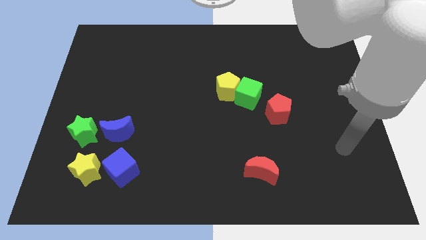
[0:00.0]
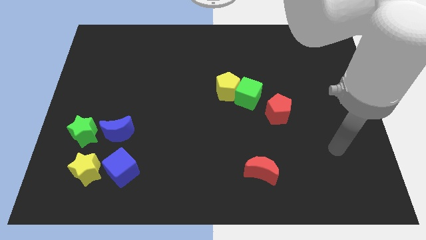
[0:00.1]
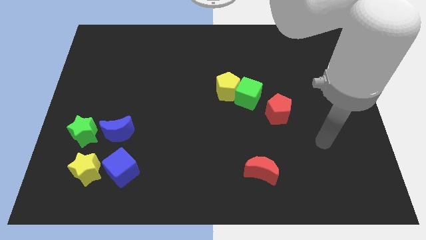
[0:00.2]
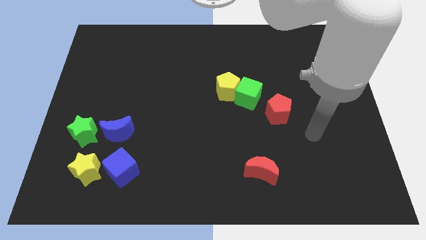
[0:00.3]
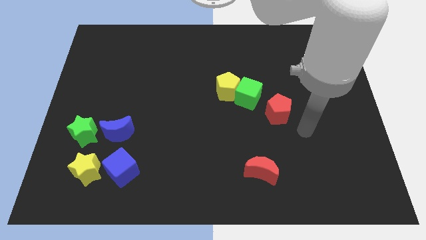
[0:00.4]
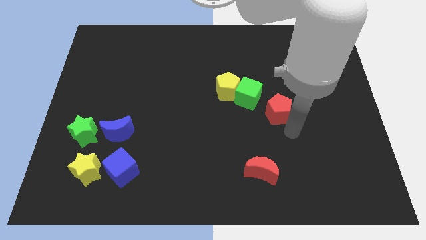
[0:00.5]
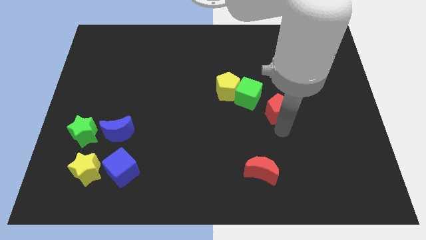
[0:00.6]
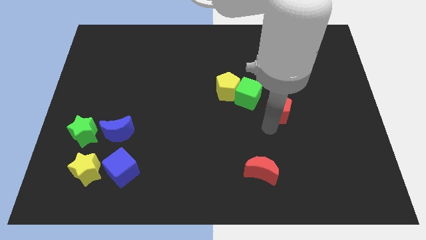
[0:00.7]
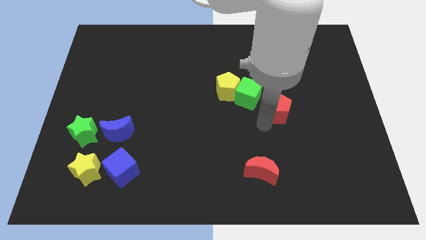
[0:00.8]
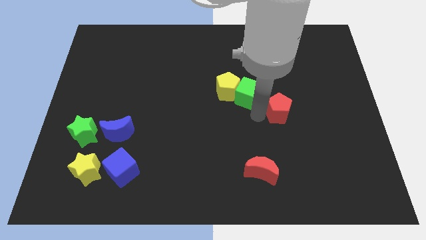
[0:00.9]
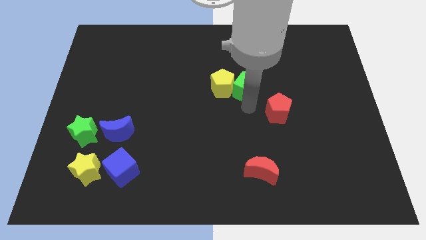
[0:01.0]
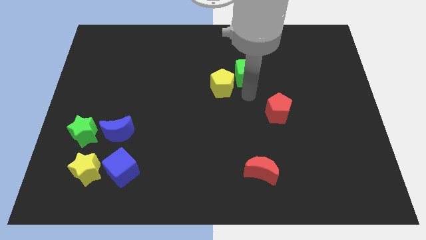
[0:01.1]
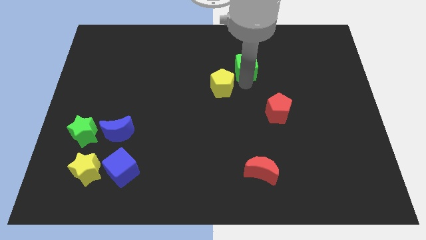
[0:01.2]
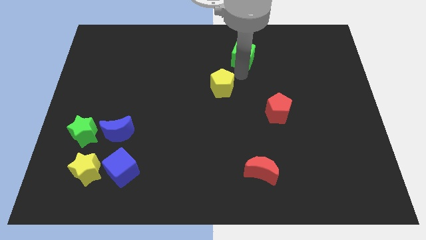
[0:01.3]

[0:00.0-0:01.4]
separate the yellow pentagon from the green cube

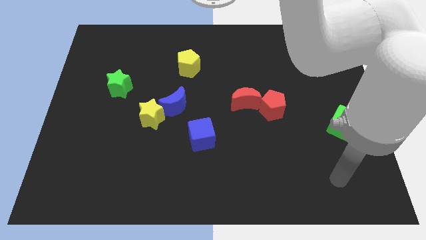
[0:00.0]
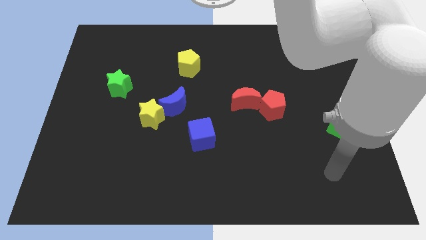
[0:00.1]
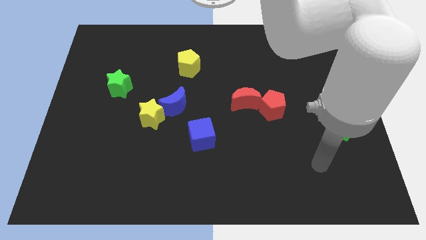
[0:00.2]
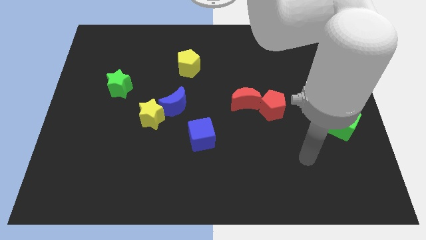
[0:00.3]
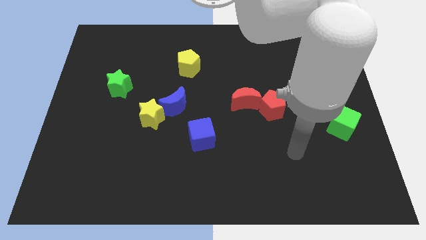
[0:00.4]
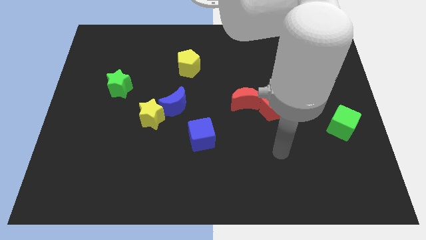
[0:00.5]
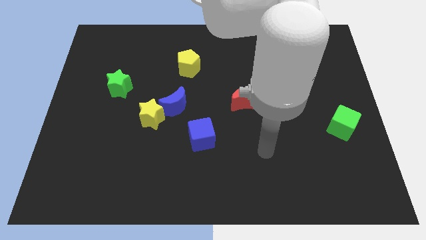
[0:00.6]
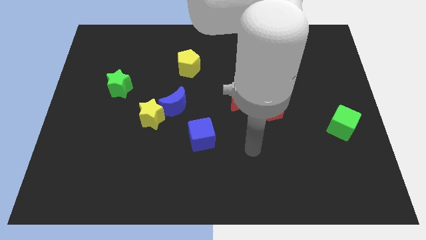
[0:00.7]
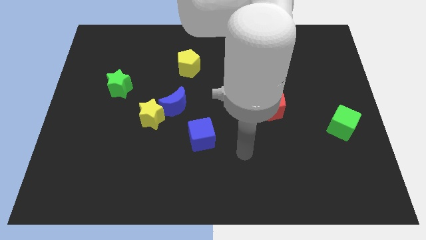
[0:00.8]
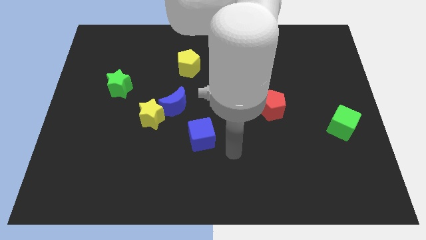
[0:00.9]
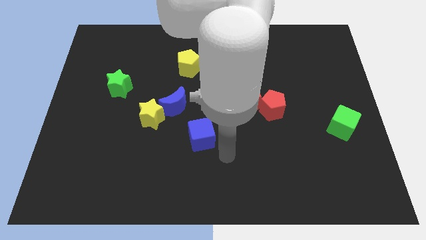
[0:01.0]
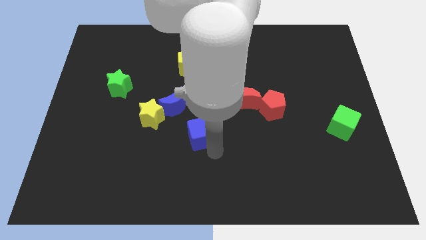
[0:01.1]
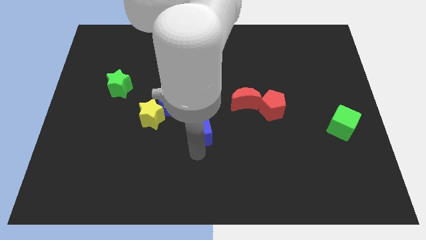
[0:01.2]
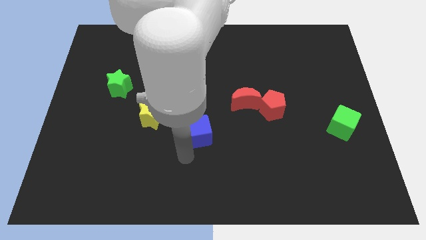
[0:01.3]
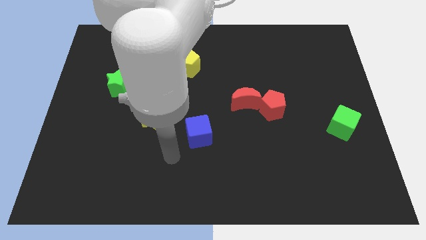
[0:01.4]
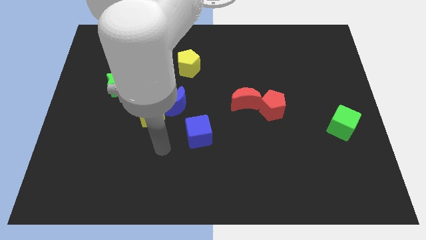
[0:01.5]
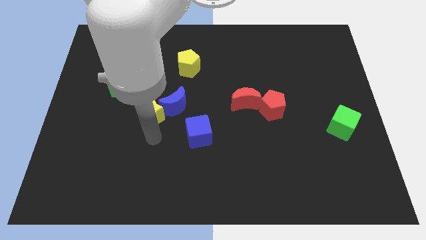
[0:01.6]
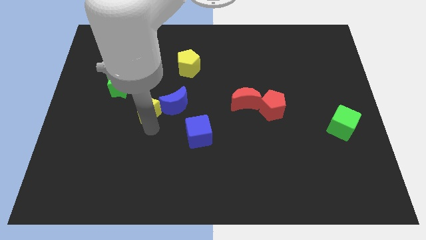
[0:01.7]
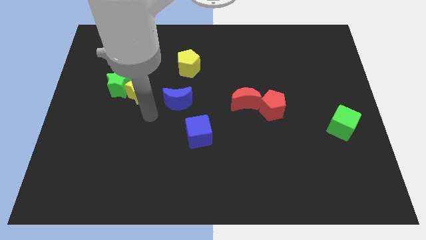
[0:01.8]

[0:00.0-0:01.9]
pull the blue moon apart from the yellow star

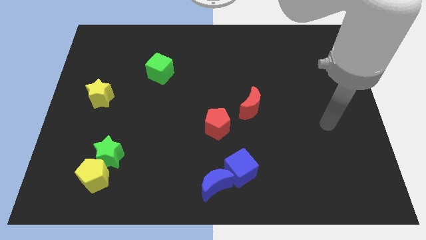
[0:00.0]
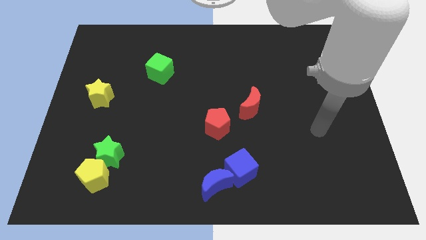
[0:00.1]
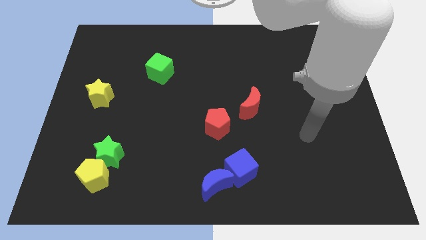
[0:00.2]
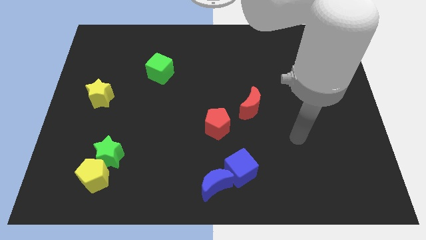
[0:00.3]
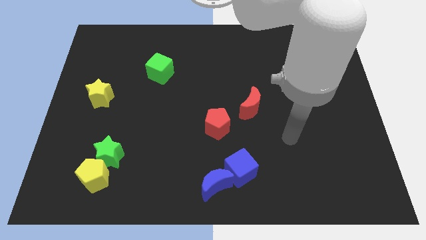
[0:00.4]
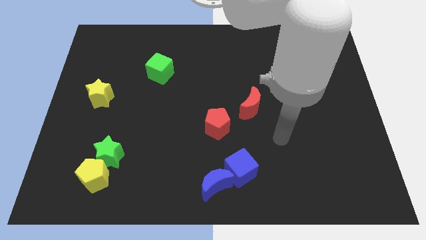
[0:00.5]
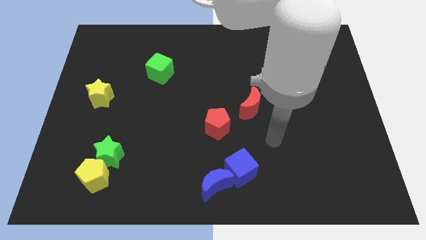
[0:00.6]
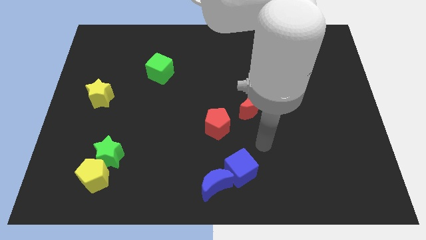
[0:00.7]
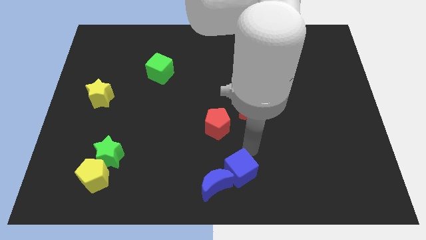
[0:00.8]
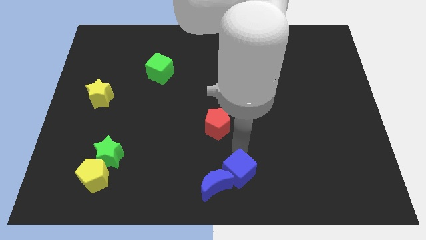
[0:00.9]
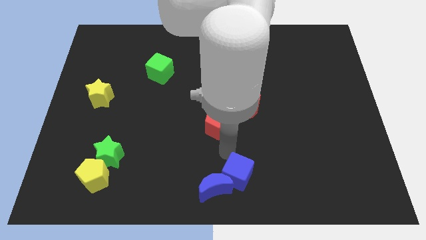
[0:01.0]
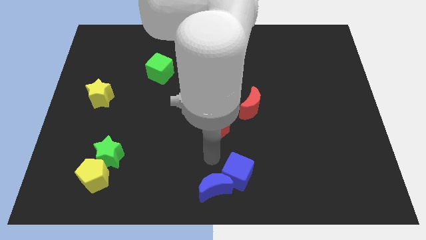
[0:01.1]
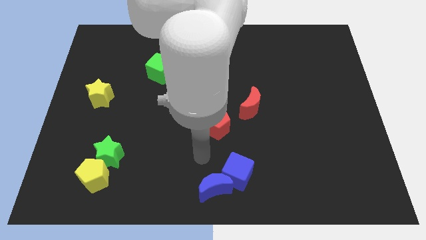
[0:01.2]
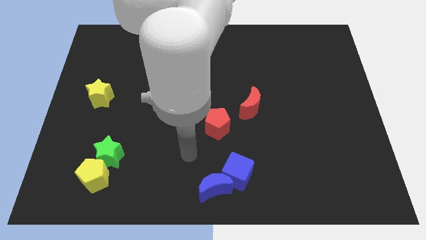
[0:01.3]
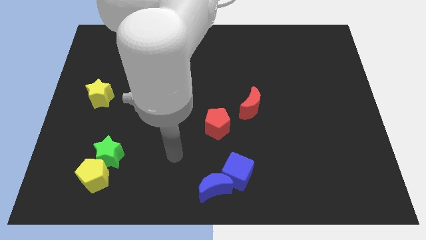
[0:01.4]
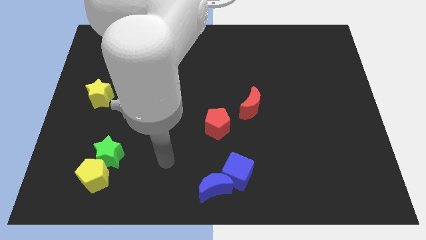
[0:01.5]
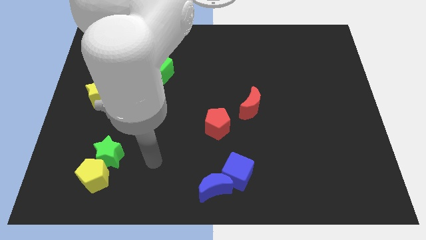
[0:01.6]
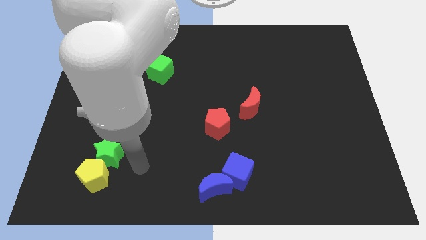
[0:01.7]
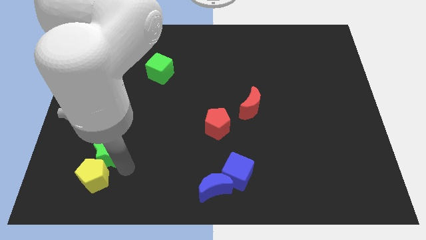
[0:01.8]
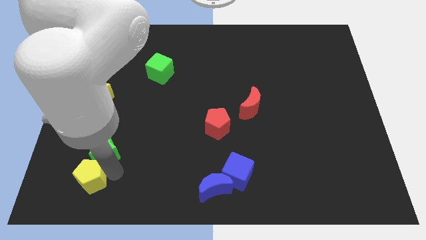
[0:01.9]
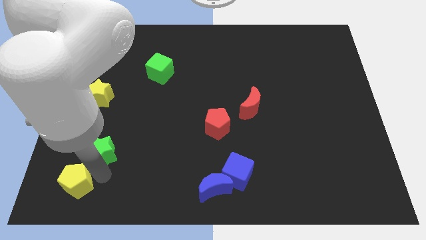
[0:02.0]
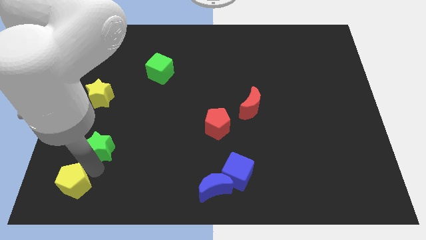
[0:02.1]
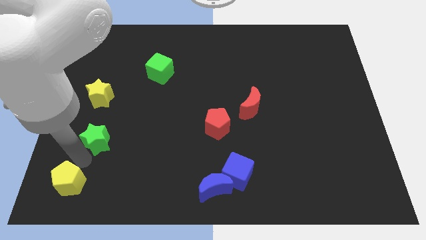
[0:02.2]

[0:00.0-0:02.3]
separate the green star from the yellow pentagon

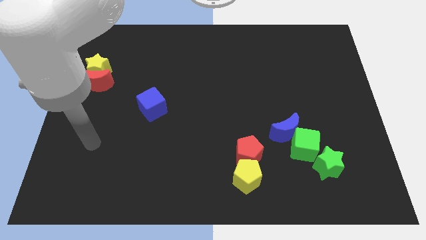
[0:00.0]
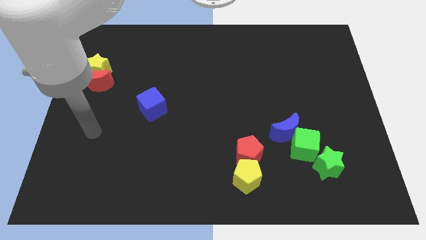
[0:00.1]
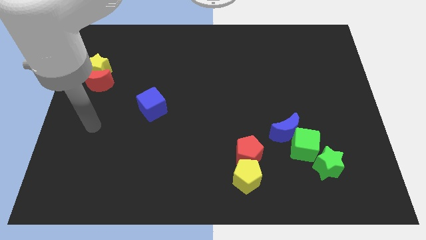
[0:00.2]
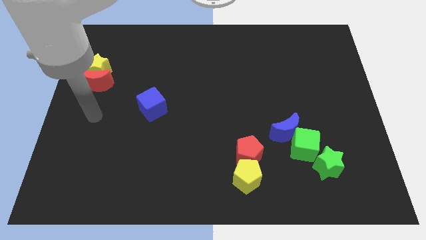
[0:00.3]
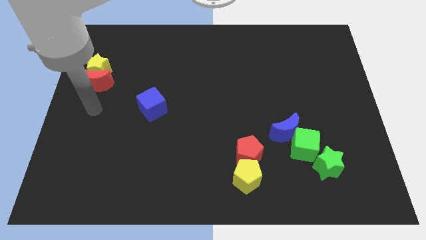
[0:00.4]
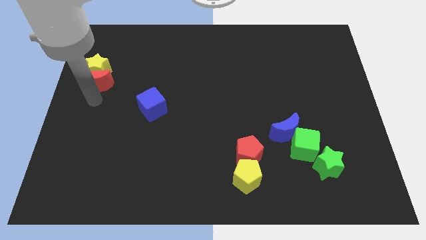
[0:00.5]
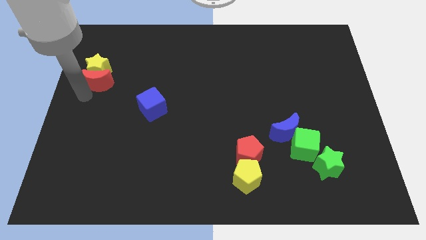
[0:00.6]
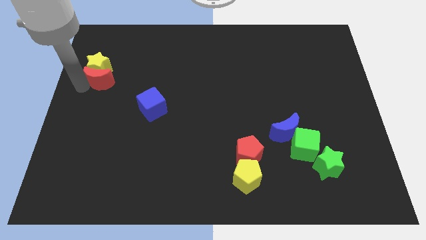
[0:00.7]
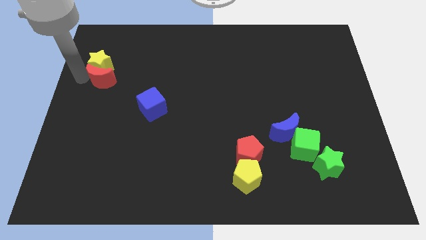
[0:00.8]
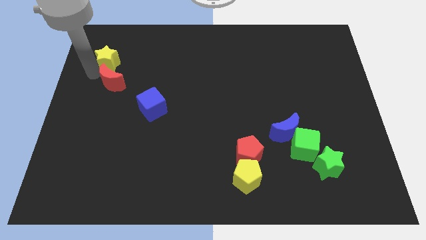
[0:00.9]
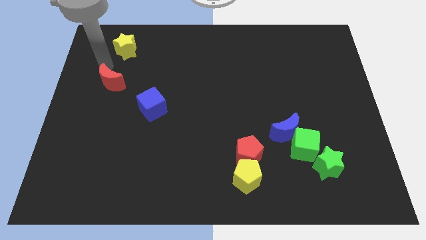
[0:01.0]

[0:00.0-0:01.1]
pull the red moon apart from the yellow star

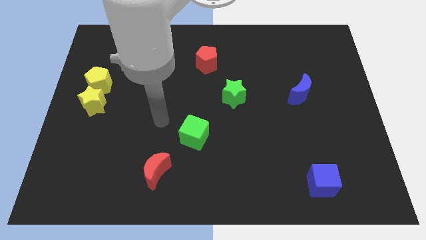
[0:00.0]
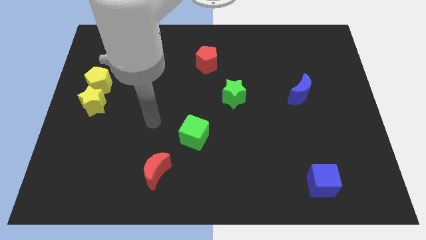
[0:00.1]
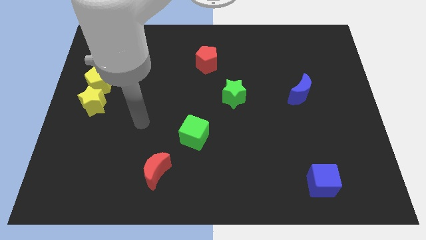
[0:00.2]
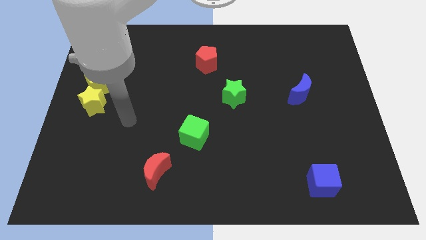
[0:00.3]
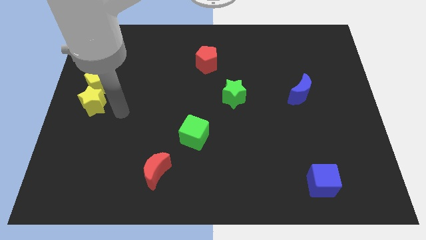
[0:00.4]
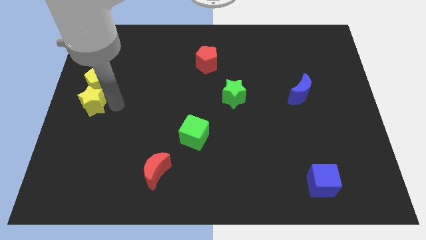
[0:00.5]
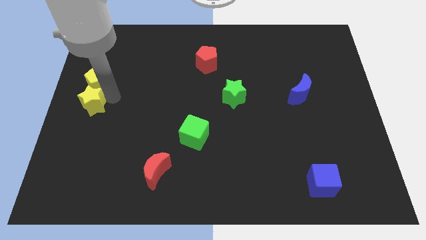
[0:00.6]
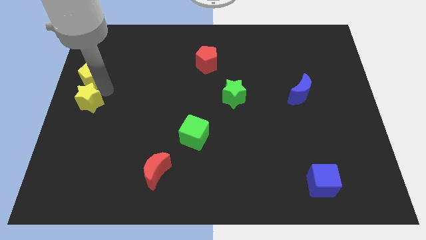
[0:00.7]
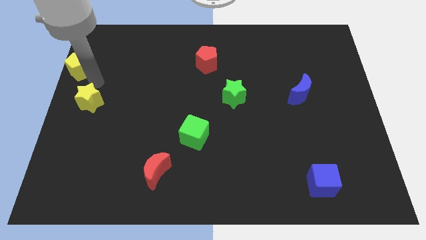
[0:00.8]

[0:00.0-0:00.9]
move the yellow star away from the yellow pentagon

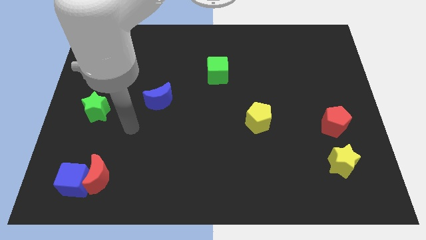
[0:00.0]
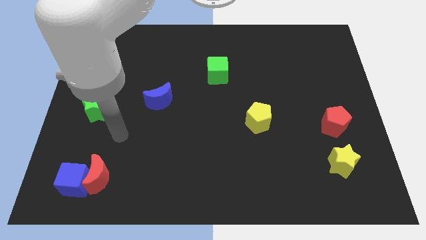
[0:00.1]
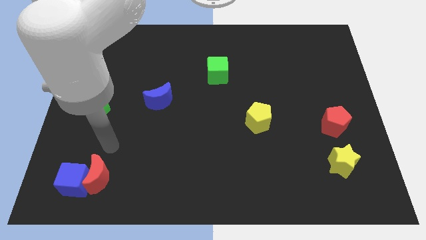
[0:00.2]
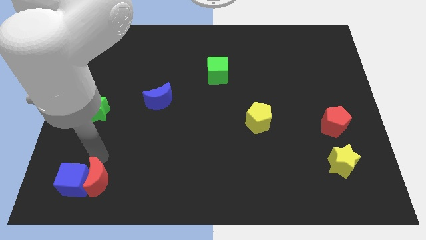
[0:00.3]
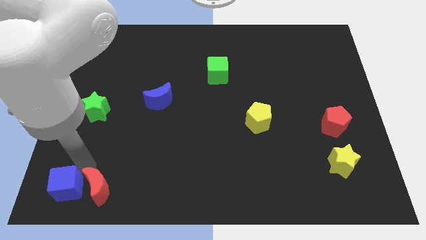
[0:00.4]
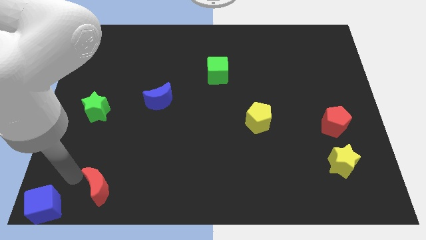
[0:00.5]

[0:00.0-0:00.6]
pull the red moon apart from the blue cube

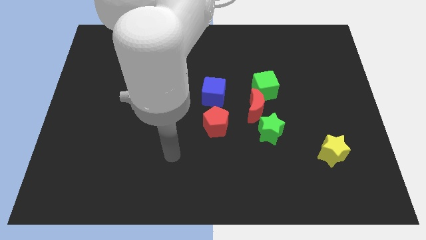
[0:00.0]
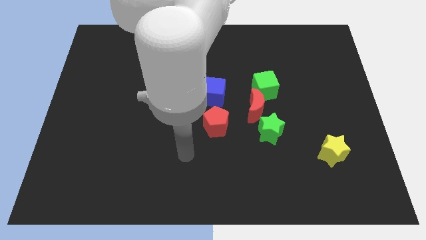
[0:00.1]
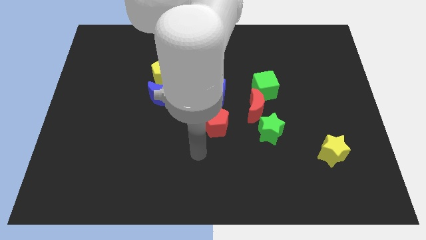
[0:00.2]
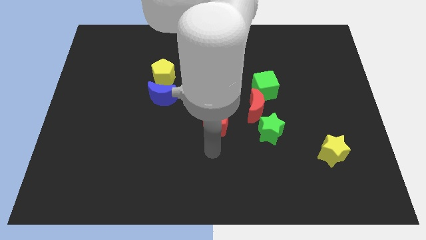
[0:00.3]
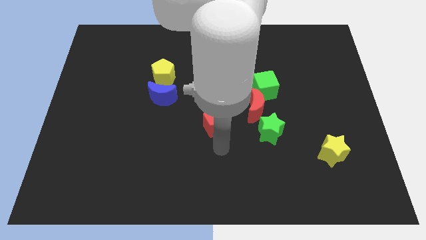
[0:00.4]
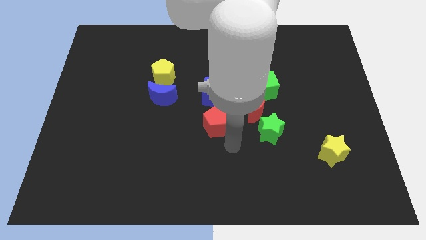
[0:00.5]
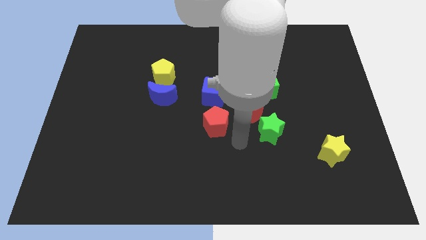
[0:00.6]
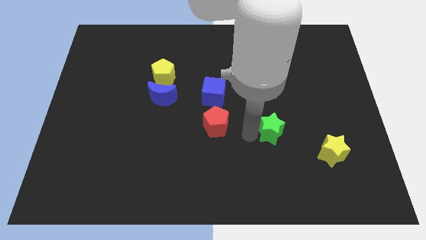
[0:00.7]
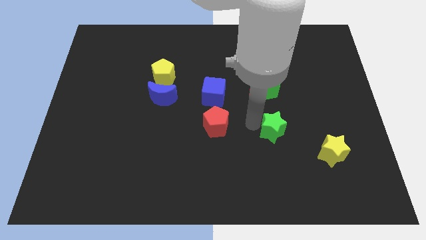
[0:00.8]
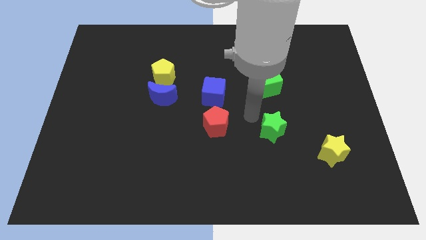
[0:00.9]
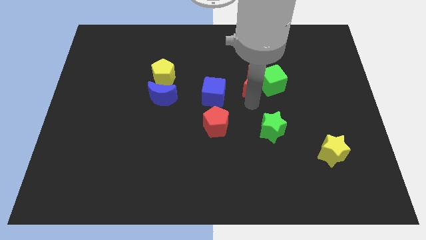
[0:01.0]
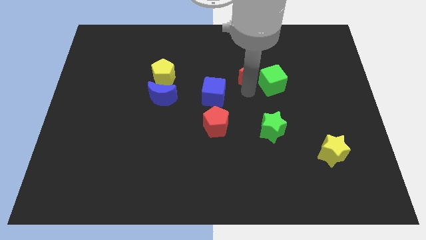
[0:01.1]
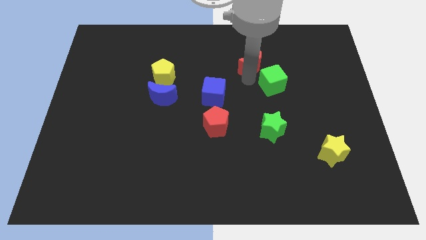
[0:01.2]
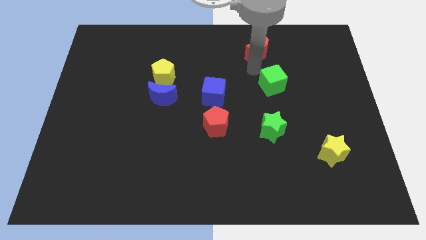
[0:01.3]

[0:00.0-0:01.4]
pull the green cube apart from the red moon
